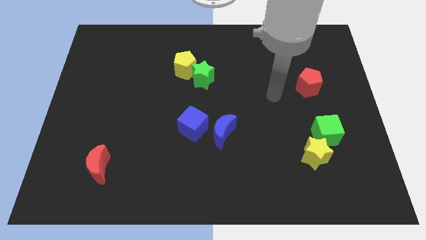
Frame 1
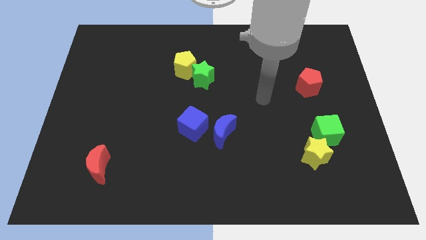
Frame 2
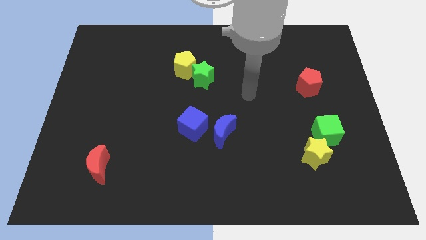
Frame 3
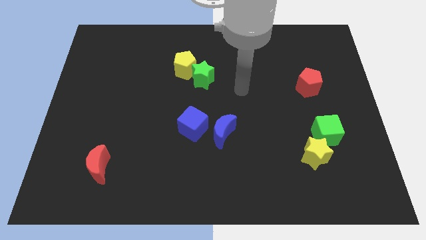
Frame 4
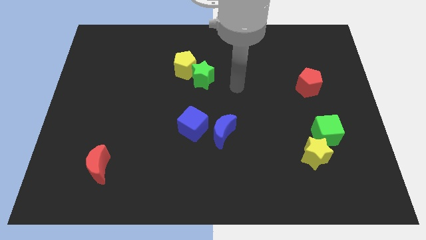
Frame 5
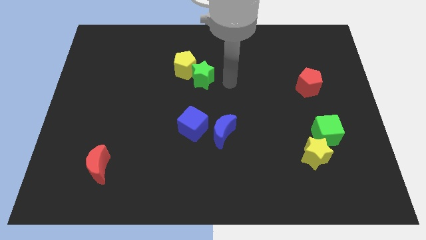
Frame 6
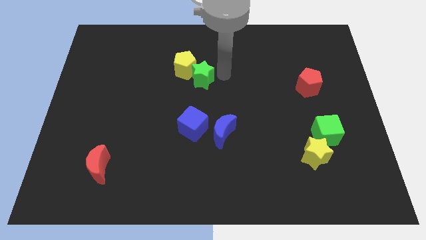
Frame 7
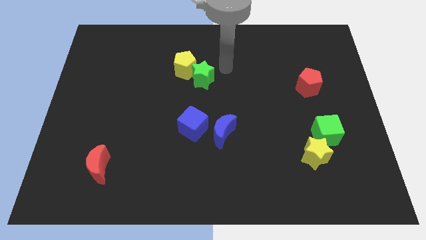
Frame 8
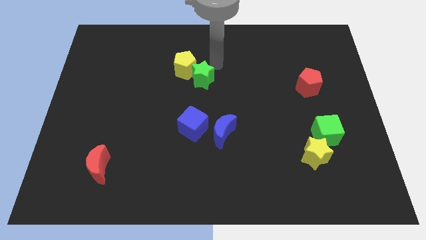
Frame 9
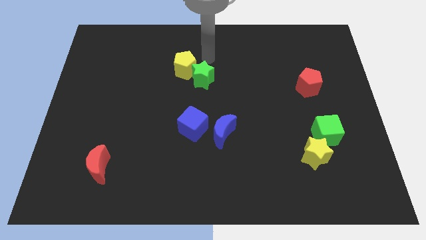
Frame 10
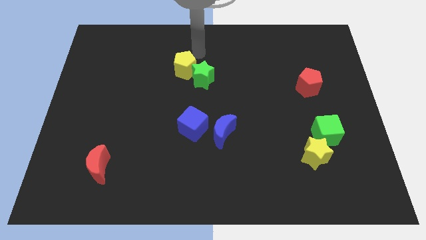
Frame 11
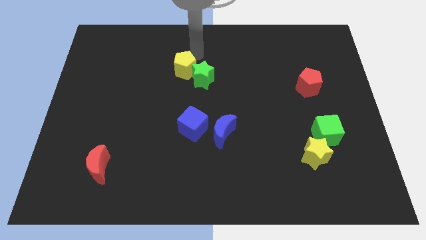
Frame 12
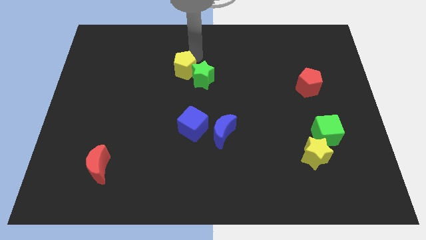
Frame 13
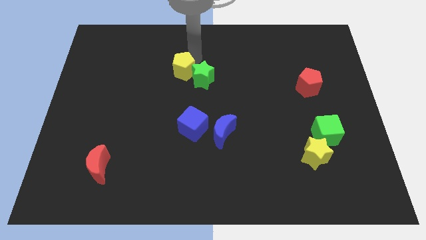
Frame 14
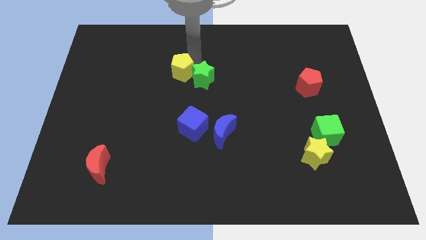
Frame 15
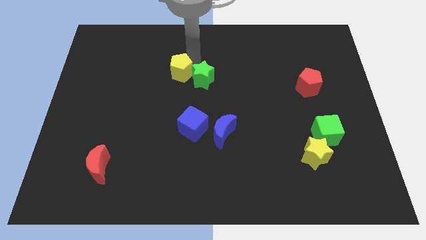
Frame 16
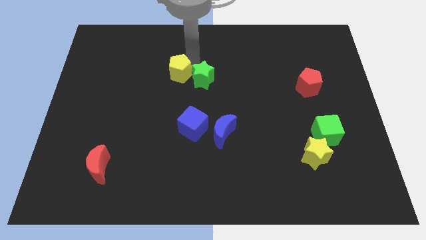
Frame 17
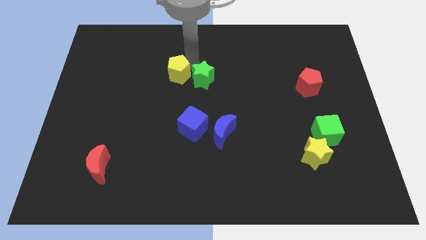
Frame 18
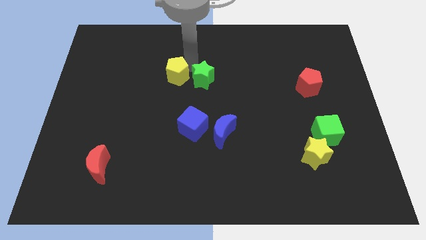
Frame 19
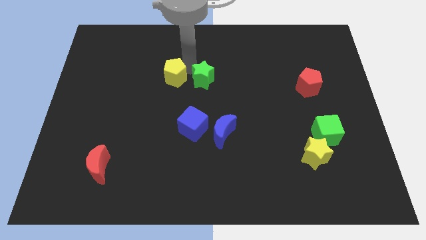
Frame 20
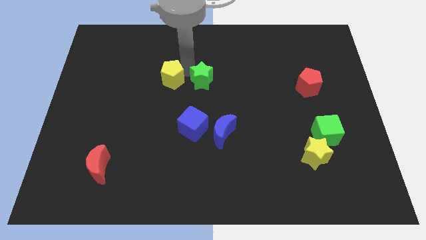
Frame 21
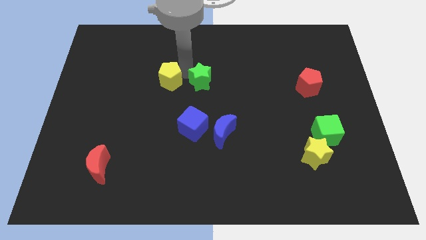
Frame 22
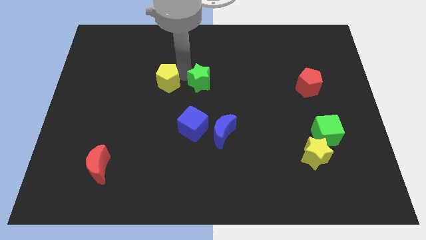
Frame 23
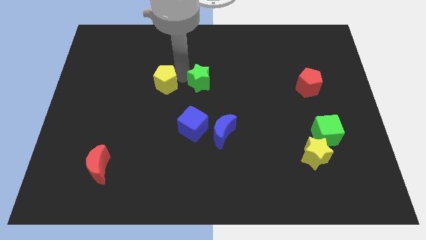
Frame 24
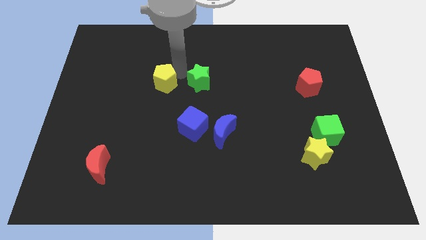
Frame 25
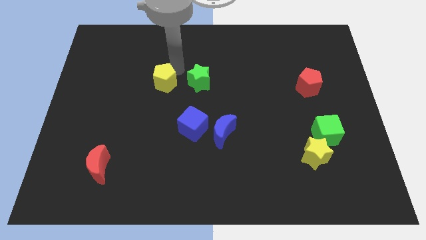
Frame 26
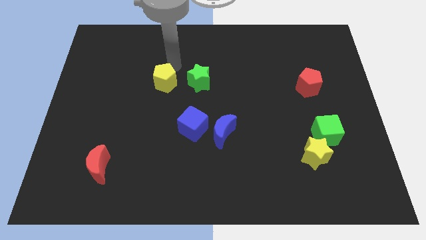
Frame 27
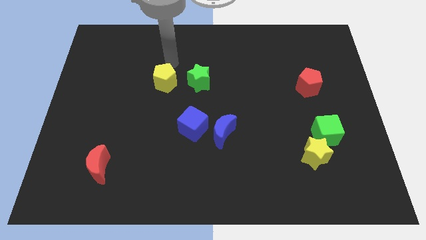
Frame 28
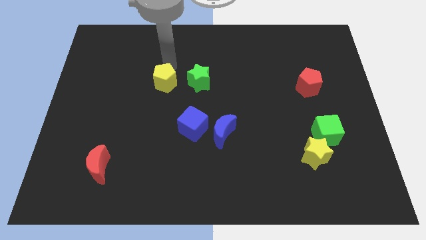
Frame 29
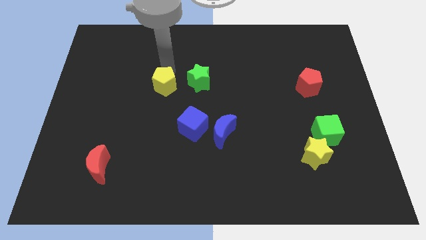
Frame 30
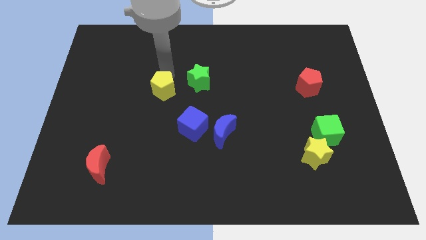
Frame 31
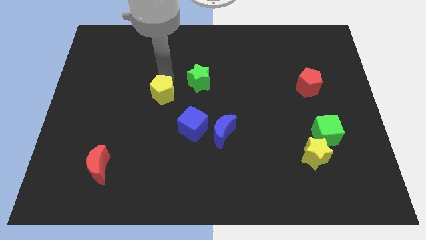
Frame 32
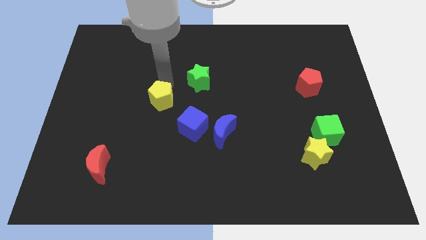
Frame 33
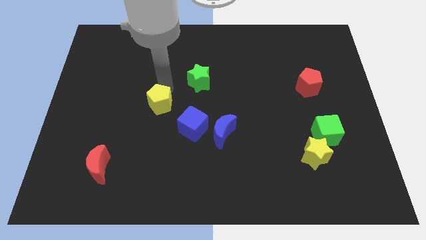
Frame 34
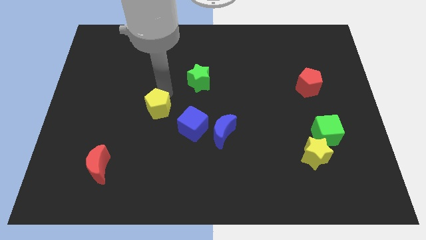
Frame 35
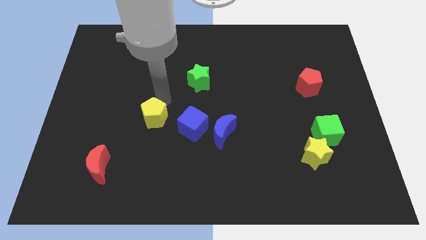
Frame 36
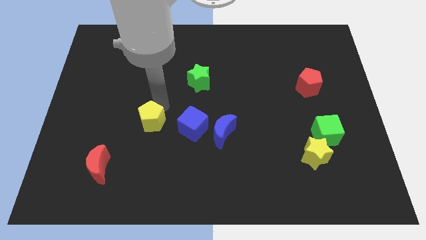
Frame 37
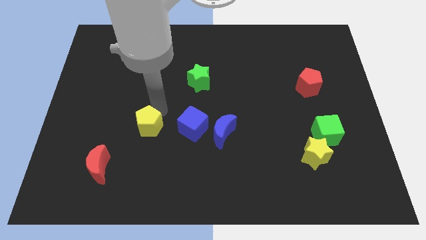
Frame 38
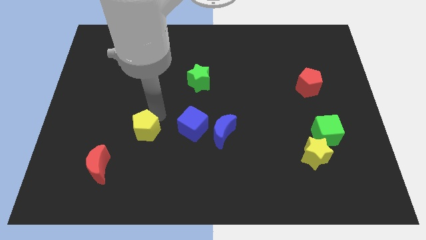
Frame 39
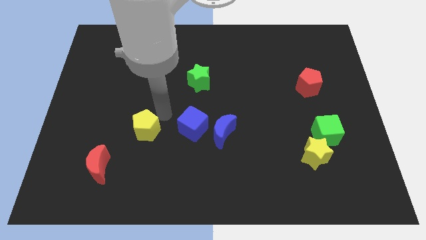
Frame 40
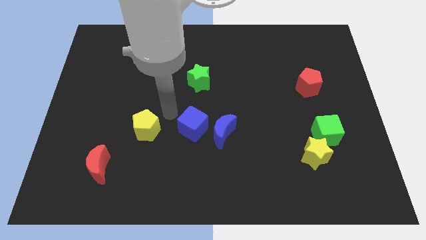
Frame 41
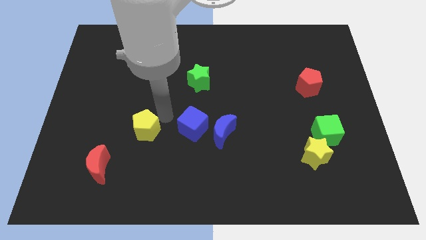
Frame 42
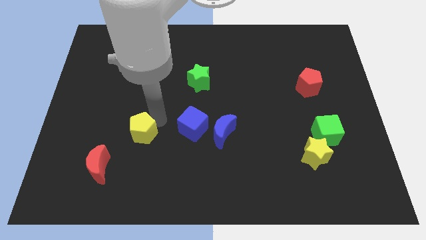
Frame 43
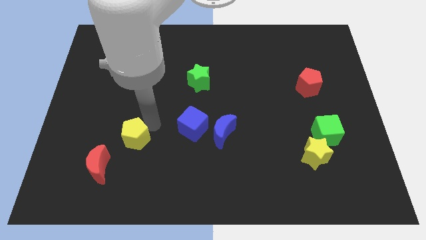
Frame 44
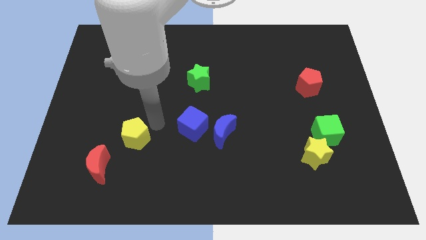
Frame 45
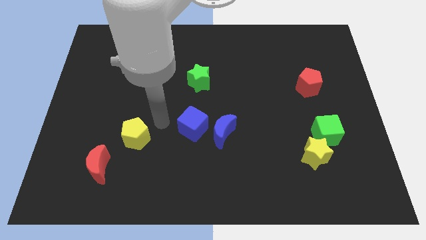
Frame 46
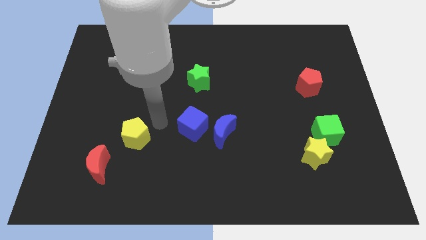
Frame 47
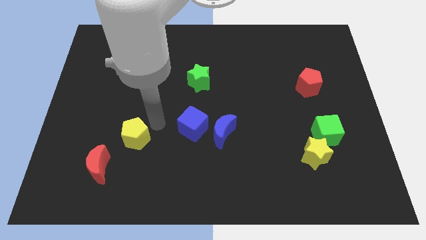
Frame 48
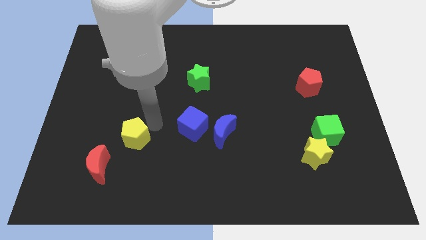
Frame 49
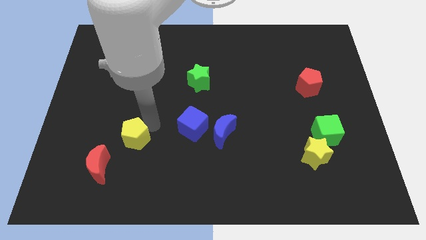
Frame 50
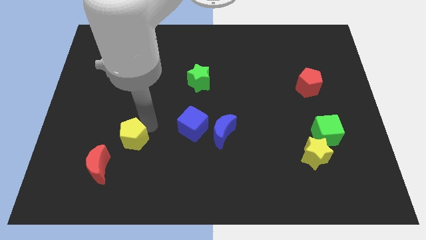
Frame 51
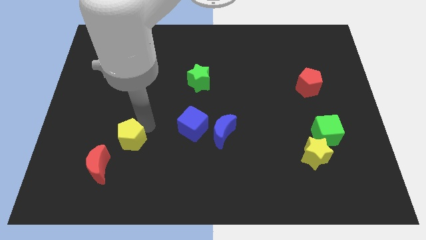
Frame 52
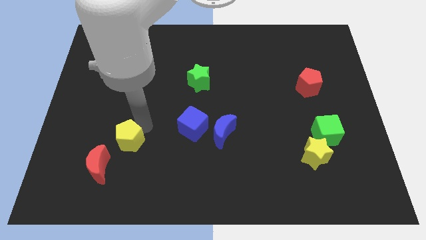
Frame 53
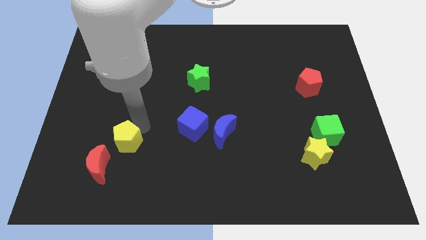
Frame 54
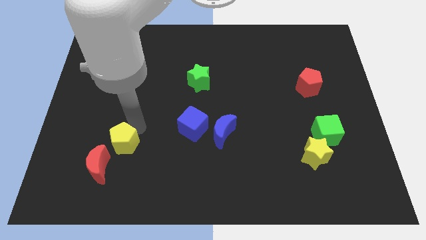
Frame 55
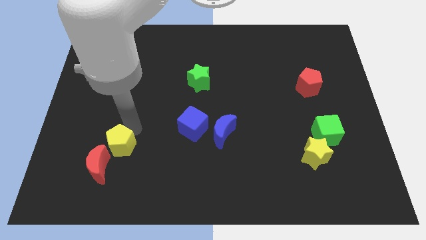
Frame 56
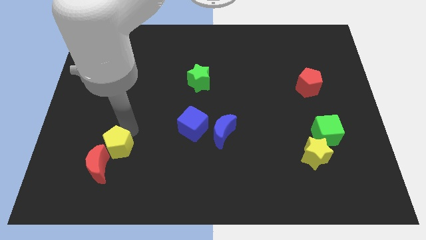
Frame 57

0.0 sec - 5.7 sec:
put the yellow pentagon towards the red moon

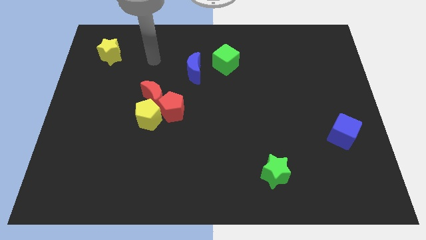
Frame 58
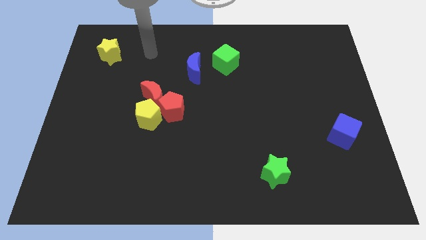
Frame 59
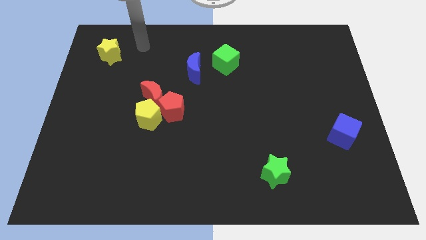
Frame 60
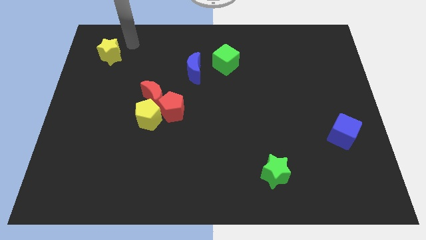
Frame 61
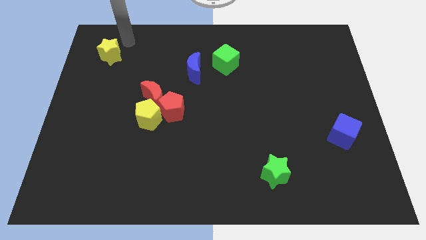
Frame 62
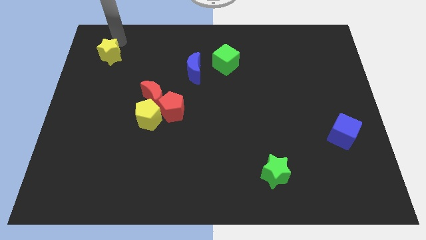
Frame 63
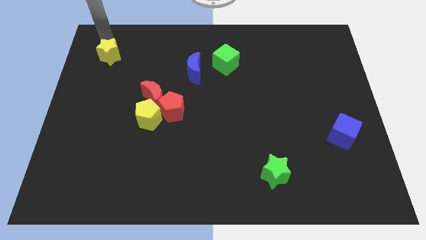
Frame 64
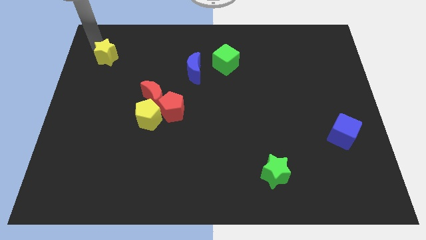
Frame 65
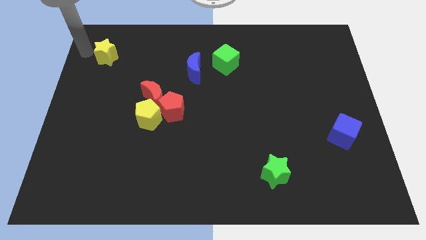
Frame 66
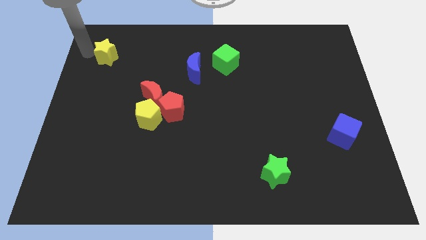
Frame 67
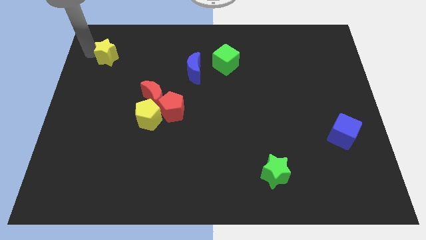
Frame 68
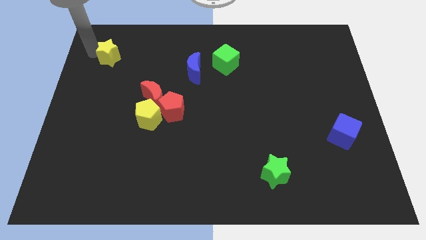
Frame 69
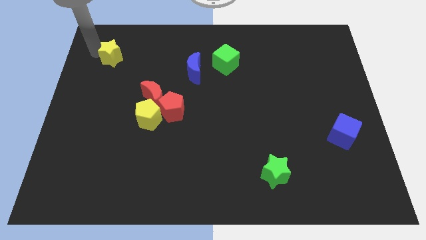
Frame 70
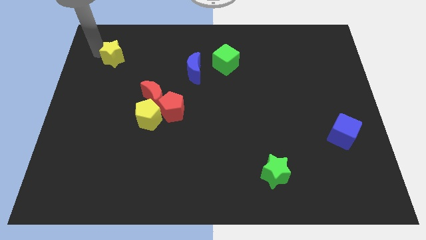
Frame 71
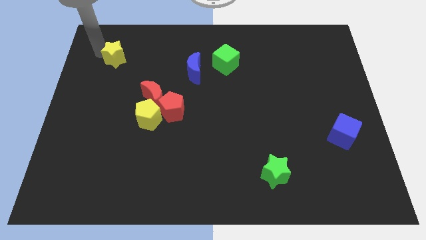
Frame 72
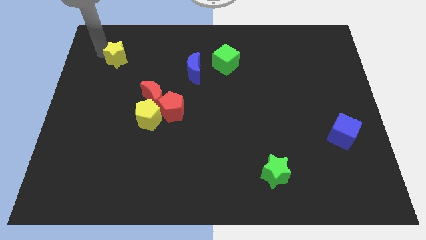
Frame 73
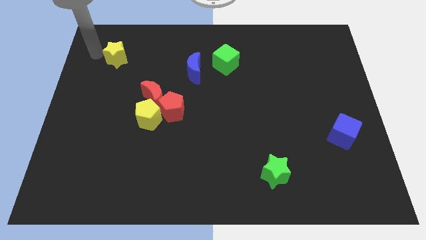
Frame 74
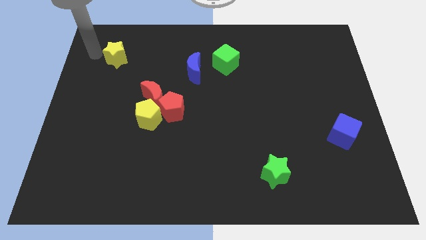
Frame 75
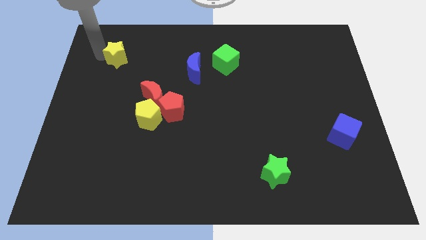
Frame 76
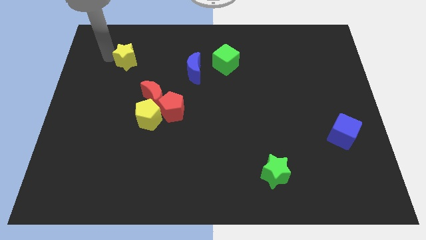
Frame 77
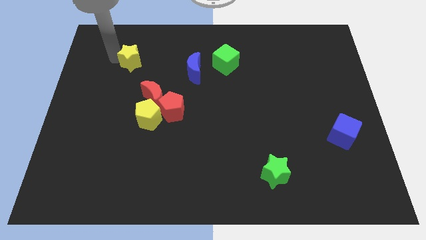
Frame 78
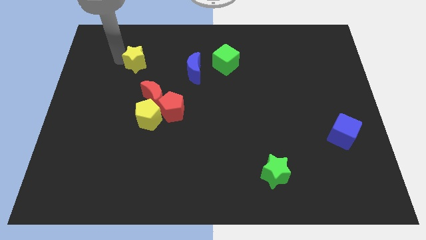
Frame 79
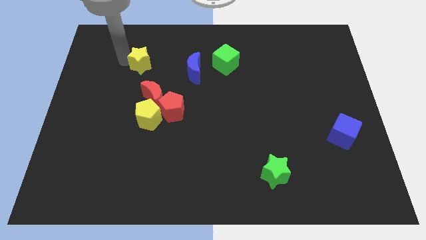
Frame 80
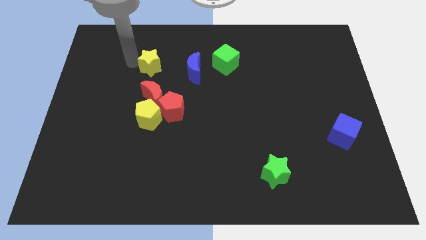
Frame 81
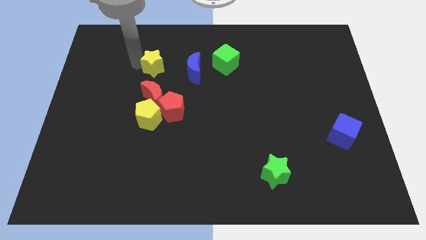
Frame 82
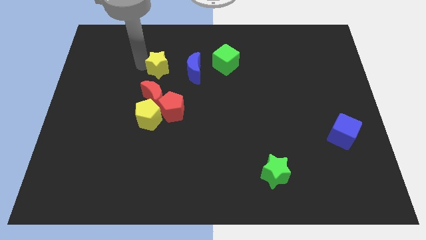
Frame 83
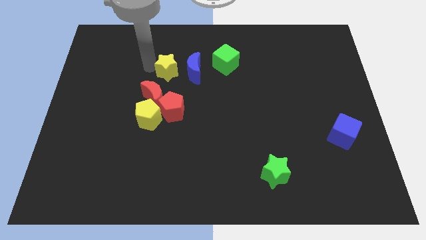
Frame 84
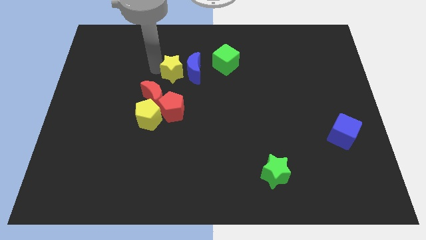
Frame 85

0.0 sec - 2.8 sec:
push the yellow star towards the blue moon
